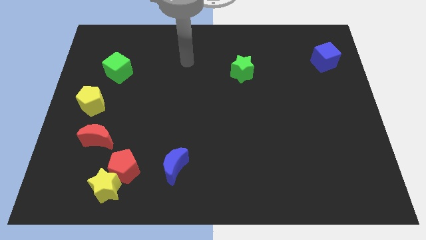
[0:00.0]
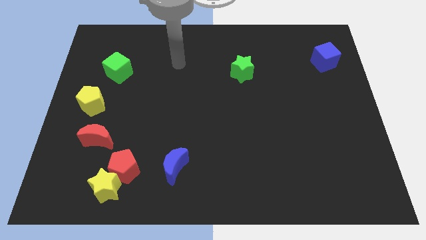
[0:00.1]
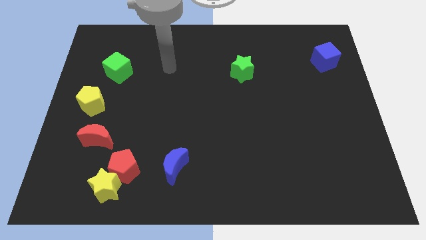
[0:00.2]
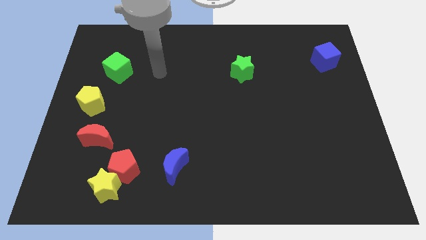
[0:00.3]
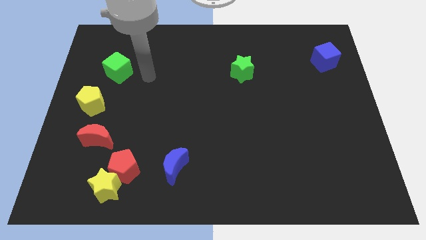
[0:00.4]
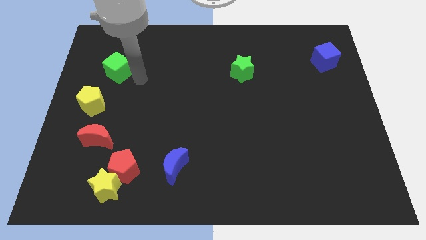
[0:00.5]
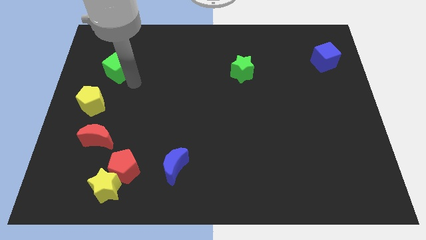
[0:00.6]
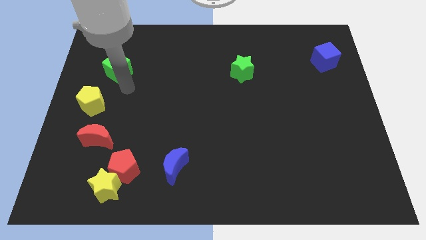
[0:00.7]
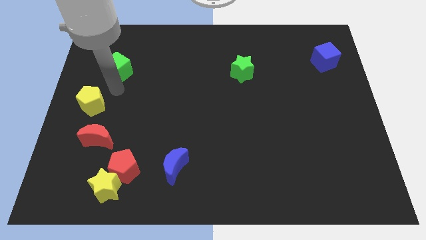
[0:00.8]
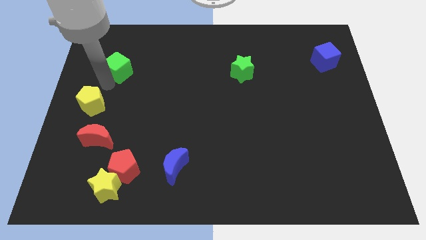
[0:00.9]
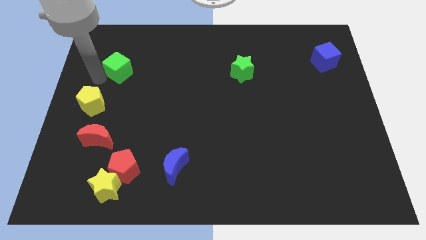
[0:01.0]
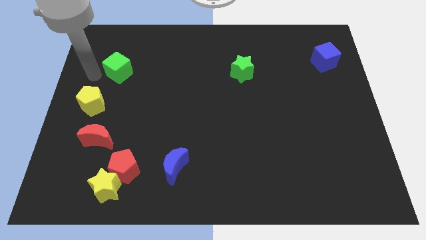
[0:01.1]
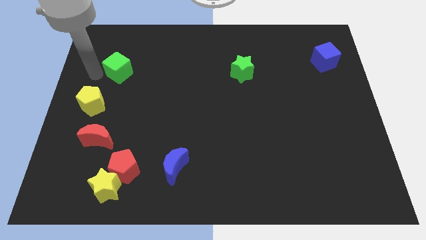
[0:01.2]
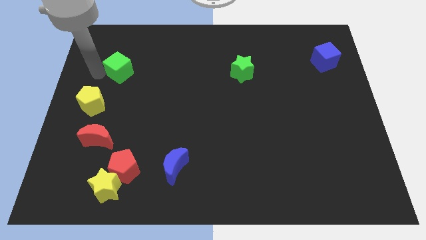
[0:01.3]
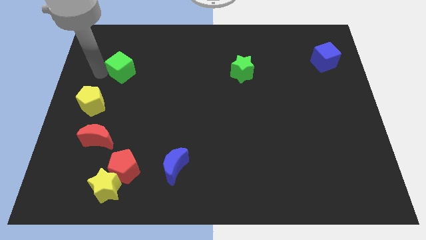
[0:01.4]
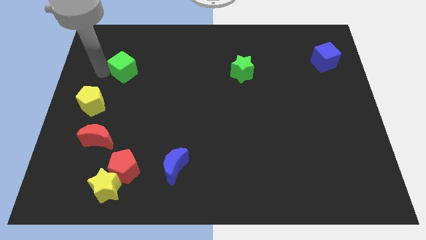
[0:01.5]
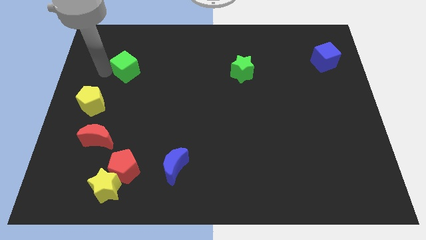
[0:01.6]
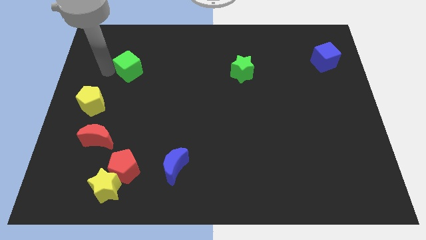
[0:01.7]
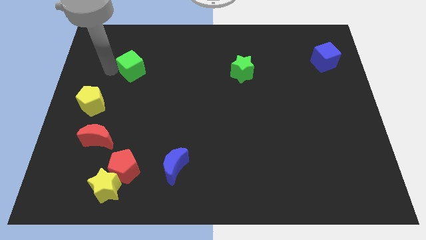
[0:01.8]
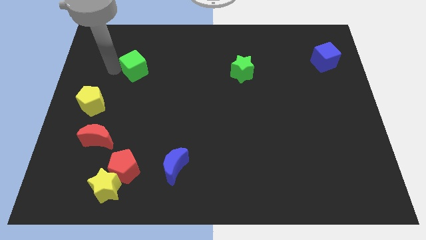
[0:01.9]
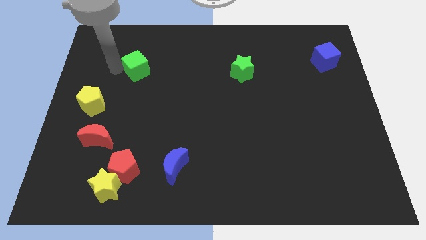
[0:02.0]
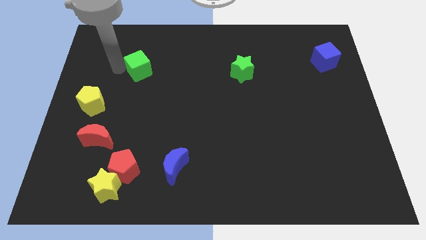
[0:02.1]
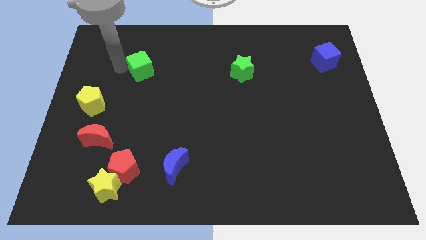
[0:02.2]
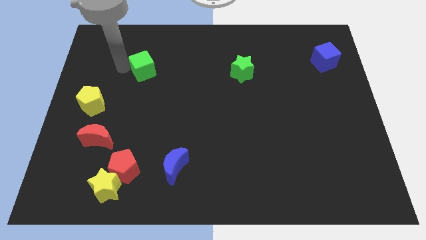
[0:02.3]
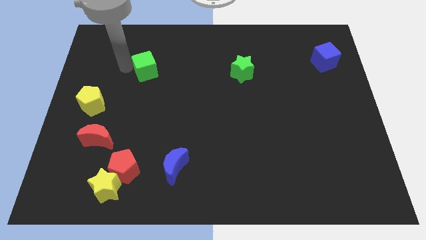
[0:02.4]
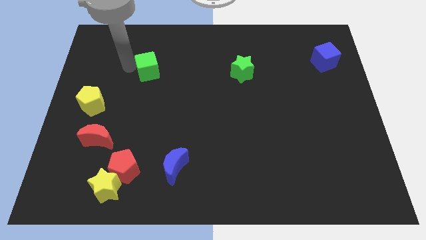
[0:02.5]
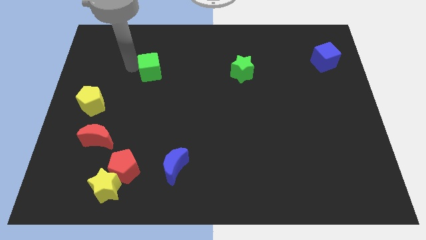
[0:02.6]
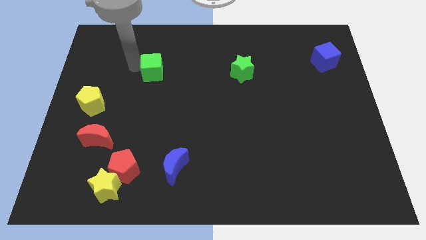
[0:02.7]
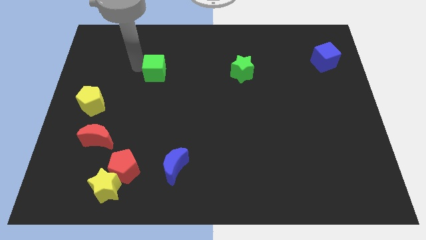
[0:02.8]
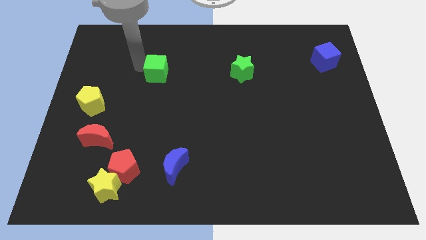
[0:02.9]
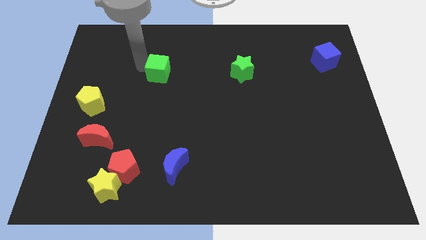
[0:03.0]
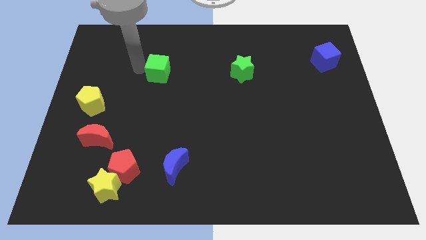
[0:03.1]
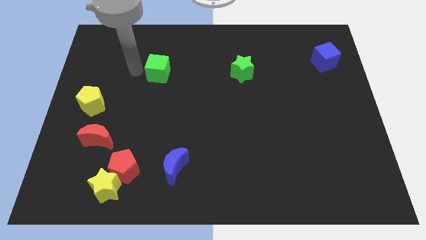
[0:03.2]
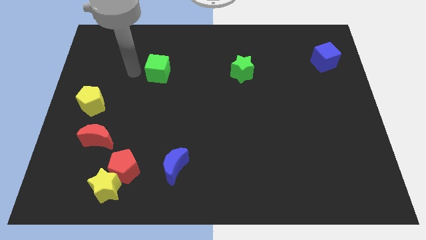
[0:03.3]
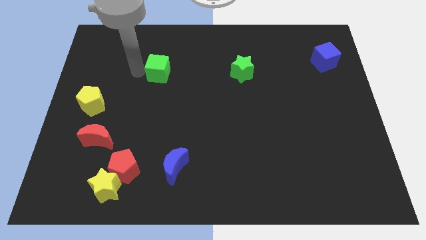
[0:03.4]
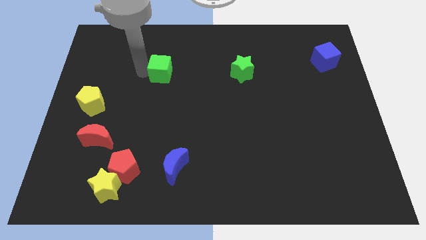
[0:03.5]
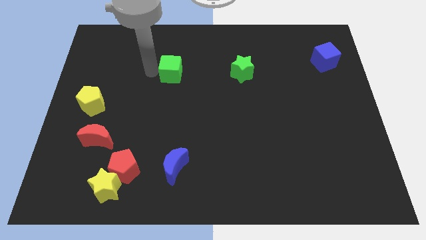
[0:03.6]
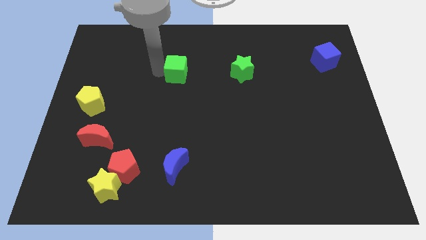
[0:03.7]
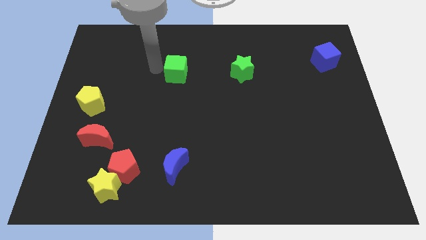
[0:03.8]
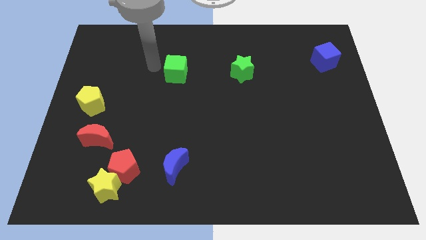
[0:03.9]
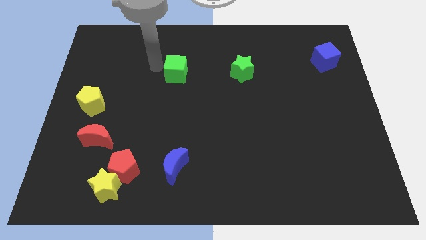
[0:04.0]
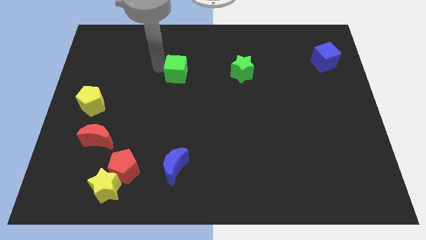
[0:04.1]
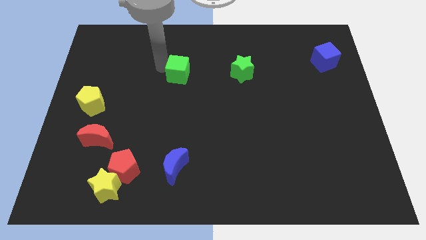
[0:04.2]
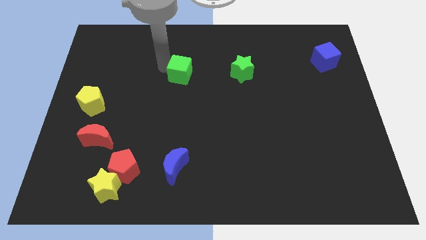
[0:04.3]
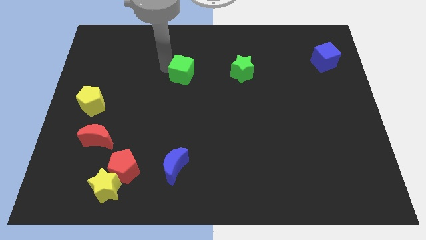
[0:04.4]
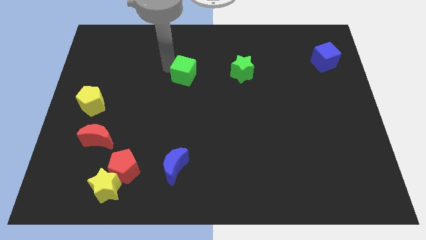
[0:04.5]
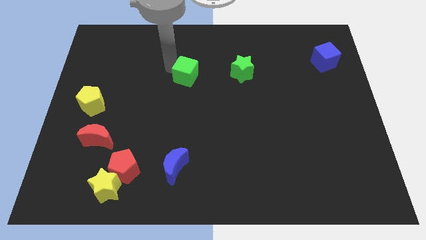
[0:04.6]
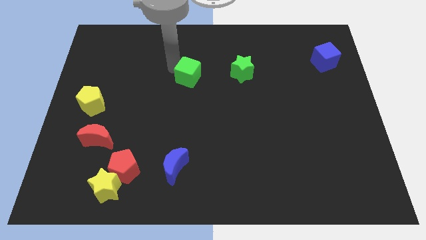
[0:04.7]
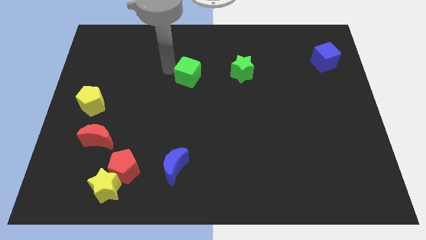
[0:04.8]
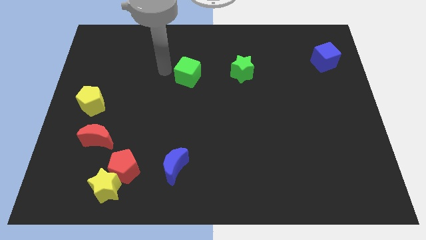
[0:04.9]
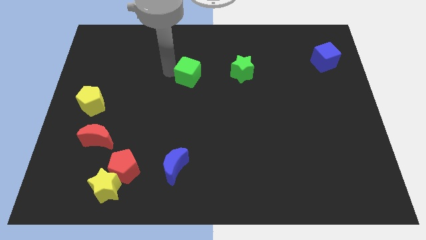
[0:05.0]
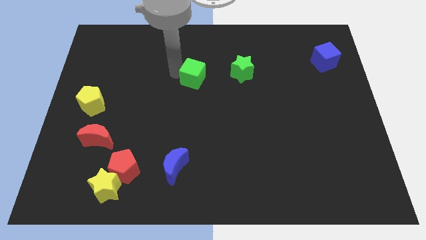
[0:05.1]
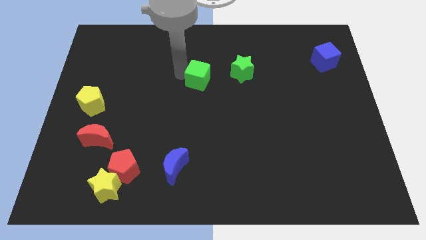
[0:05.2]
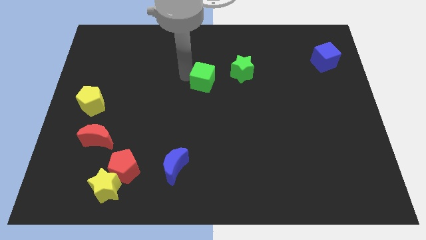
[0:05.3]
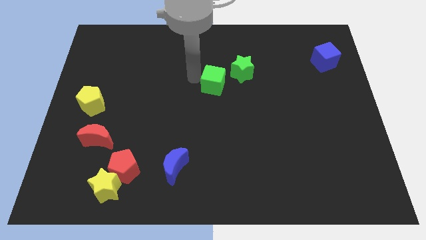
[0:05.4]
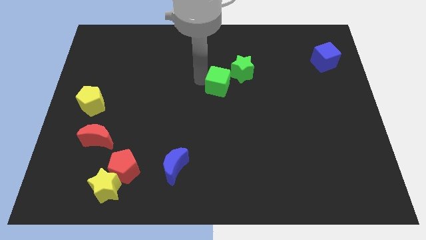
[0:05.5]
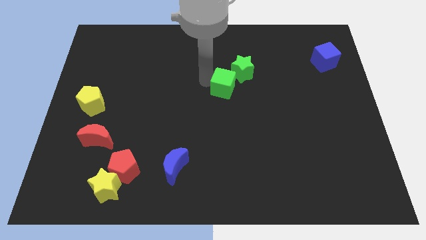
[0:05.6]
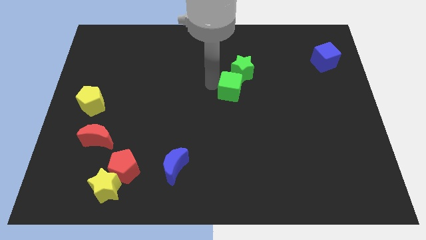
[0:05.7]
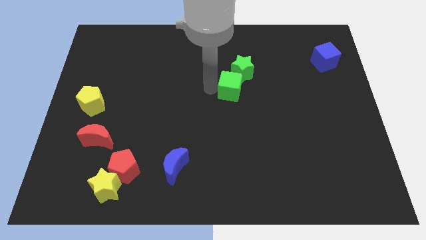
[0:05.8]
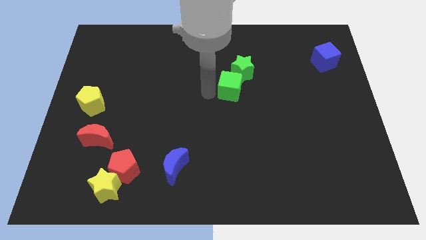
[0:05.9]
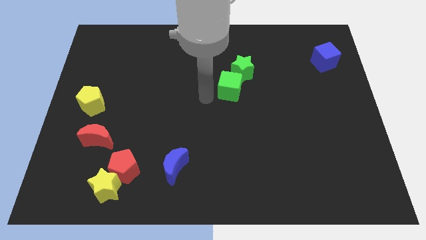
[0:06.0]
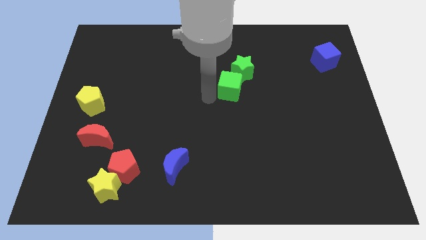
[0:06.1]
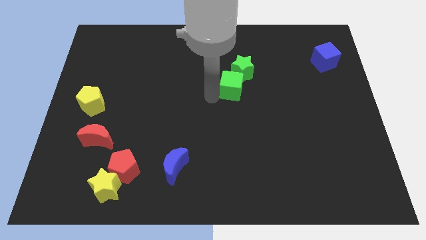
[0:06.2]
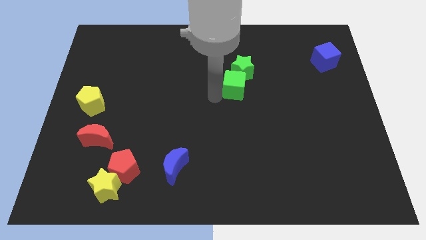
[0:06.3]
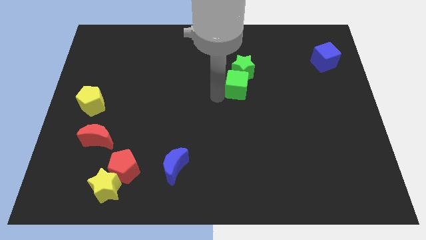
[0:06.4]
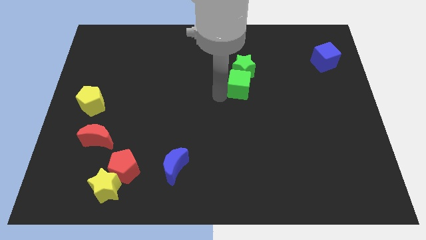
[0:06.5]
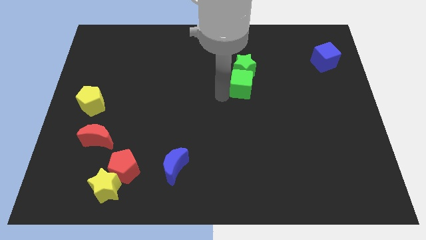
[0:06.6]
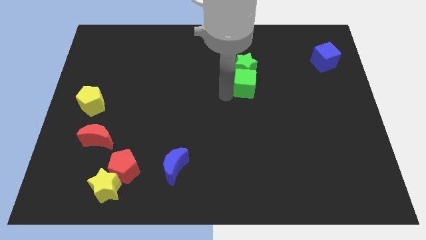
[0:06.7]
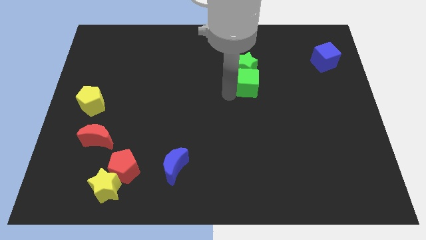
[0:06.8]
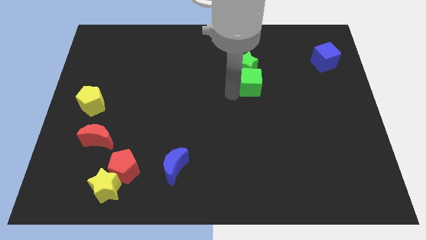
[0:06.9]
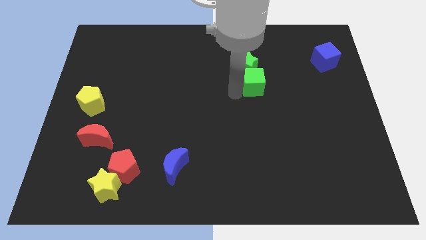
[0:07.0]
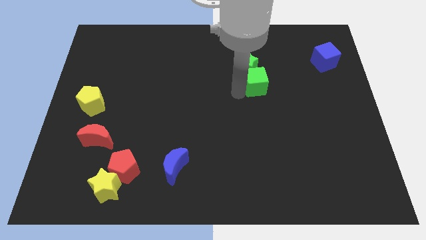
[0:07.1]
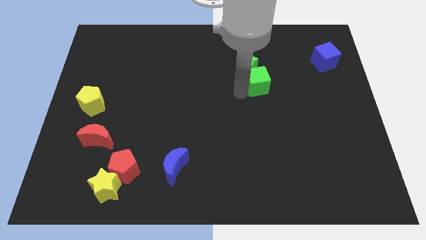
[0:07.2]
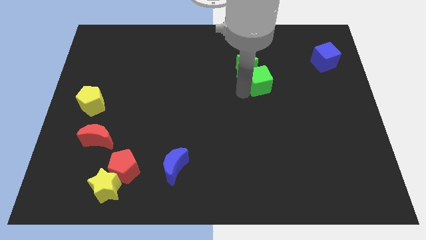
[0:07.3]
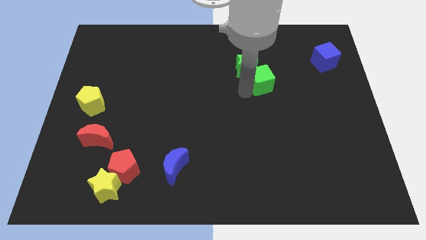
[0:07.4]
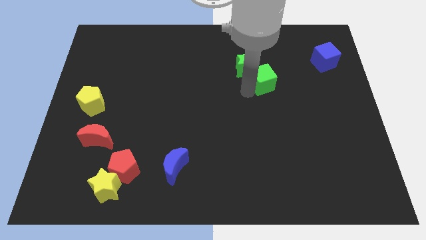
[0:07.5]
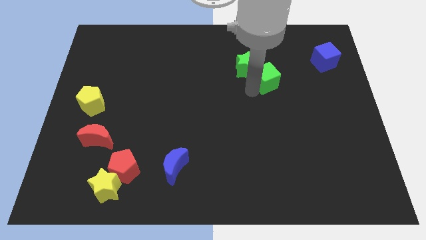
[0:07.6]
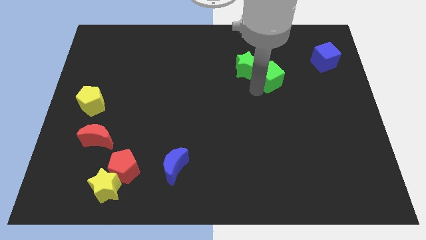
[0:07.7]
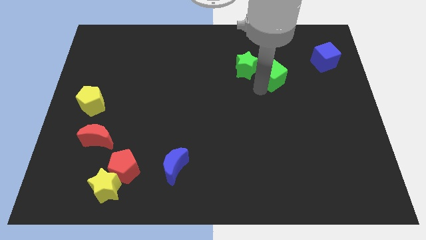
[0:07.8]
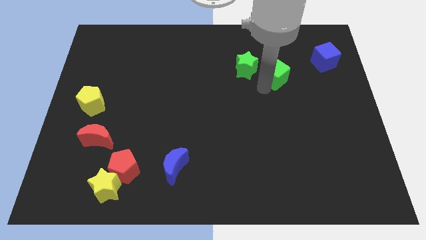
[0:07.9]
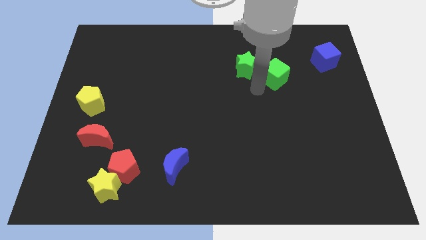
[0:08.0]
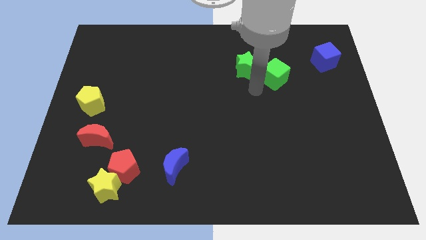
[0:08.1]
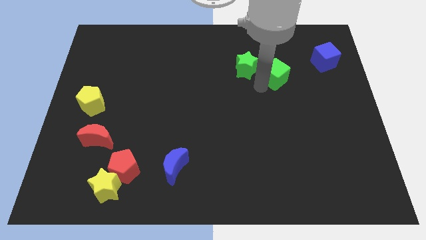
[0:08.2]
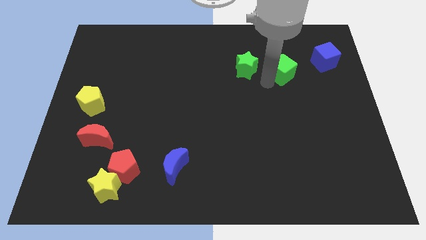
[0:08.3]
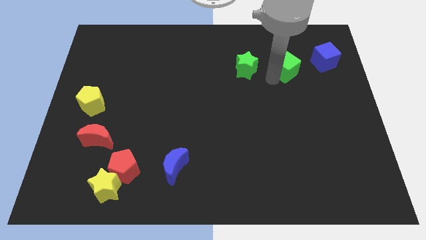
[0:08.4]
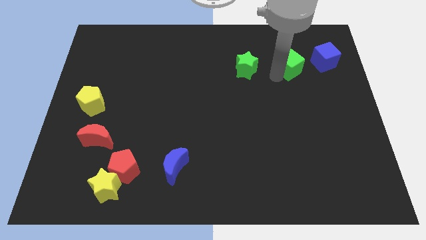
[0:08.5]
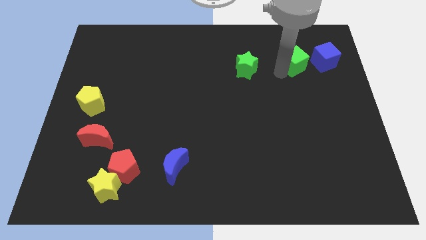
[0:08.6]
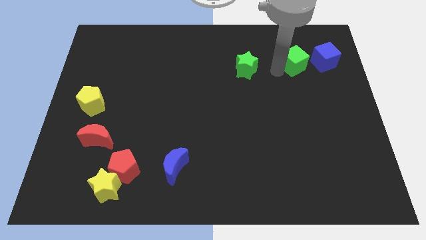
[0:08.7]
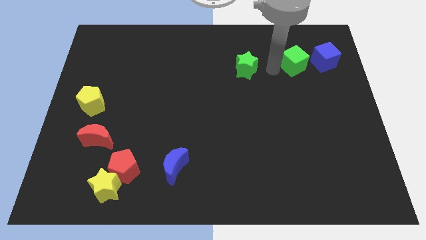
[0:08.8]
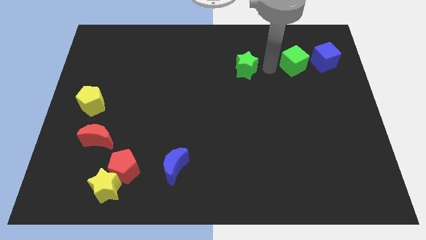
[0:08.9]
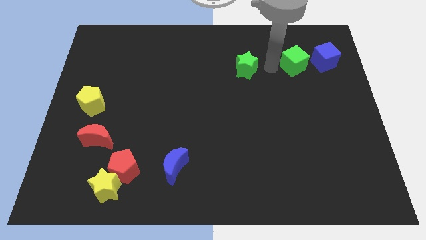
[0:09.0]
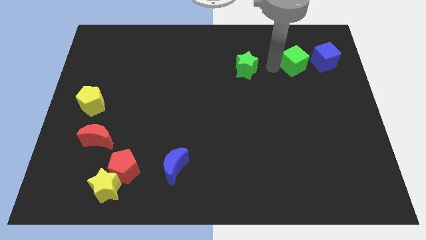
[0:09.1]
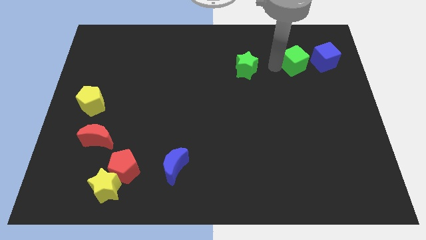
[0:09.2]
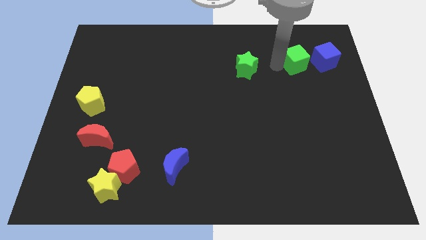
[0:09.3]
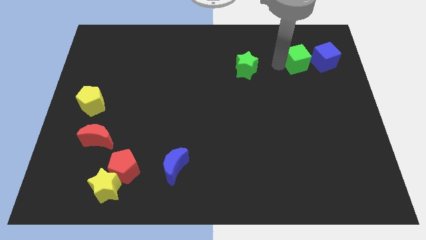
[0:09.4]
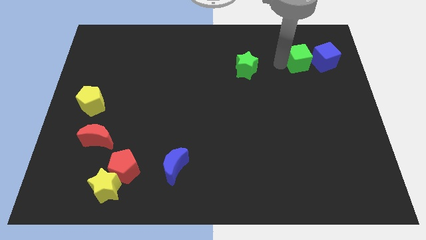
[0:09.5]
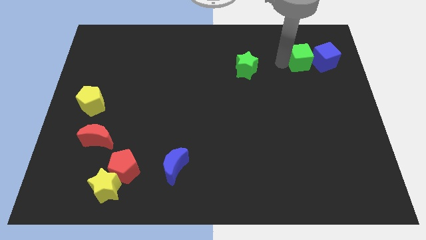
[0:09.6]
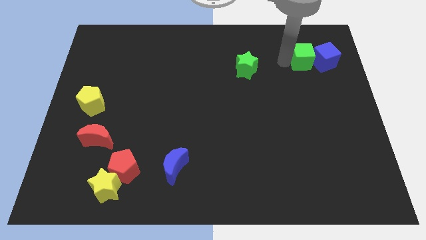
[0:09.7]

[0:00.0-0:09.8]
push the green cube close to the blue cube
